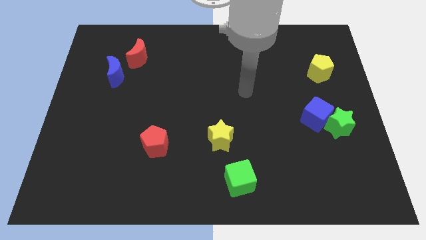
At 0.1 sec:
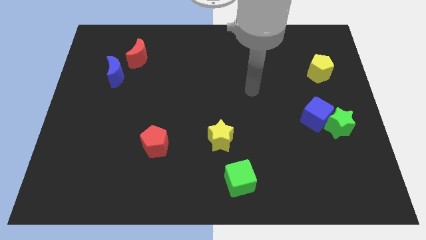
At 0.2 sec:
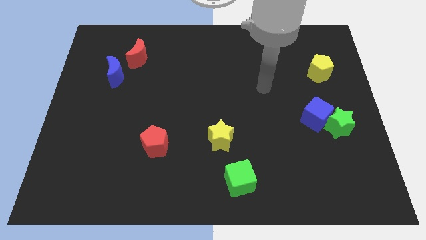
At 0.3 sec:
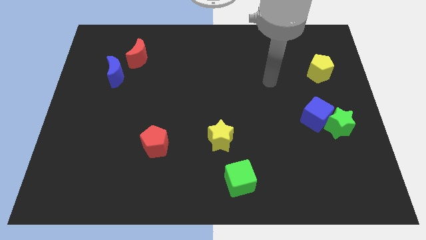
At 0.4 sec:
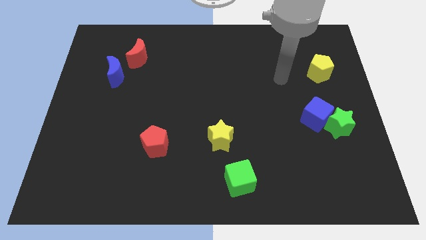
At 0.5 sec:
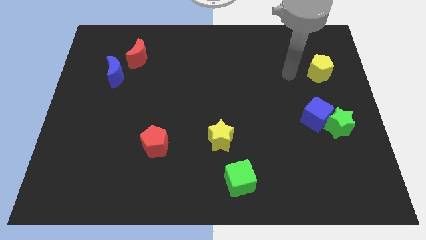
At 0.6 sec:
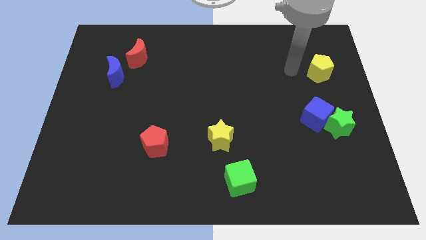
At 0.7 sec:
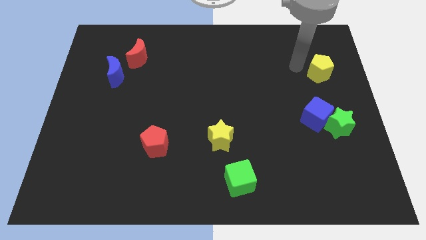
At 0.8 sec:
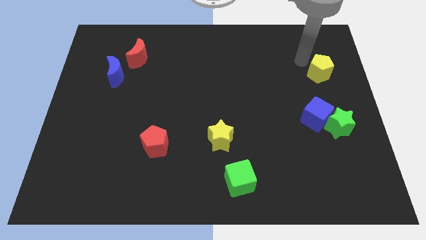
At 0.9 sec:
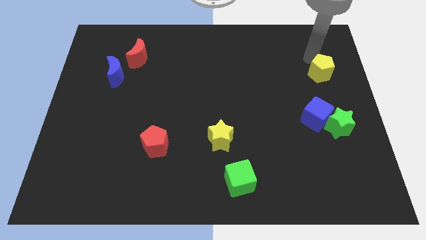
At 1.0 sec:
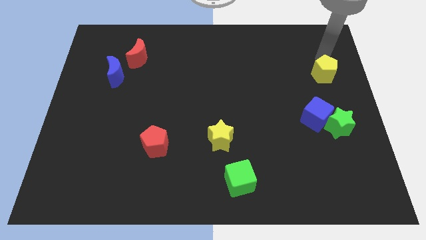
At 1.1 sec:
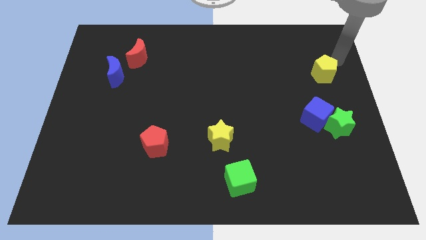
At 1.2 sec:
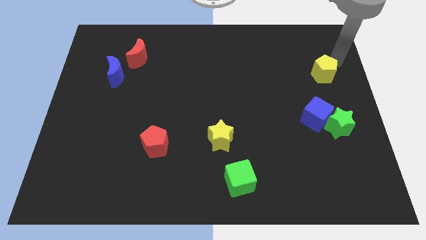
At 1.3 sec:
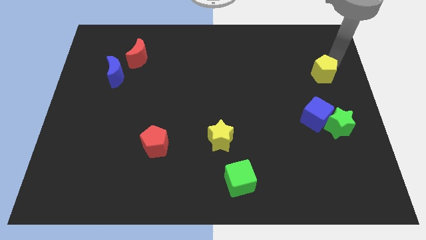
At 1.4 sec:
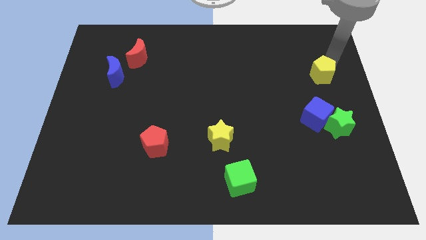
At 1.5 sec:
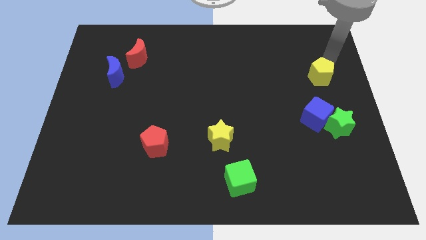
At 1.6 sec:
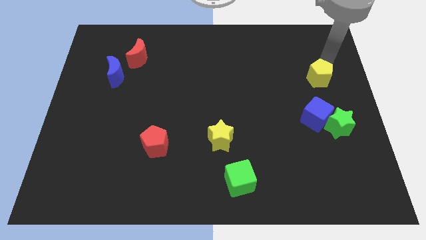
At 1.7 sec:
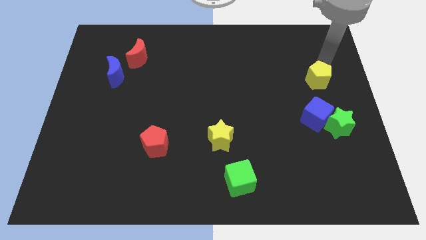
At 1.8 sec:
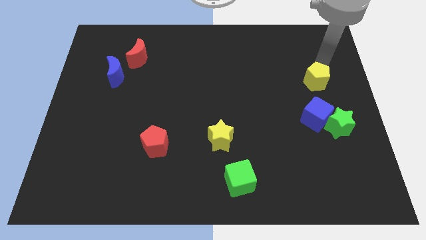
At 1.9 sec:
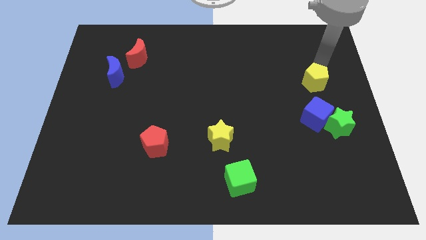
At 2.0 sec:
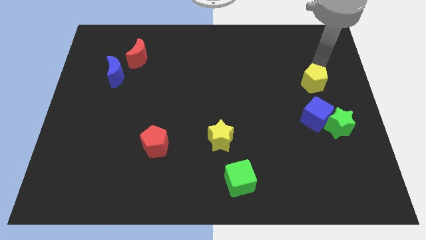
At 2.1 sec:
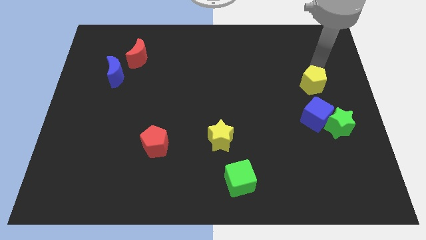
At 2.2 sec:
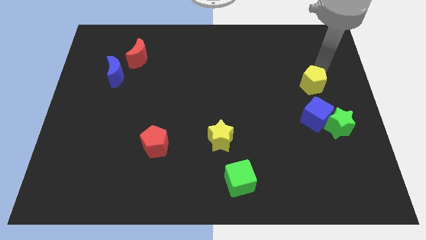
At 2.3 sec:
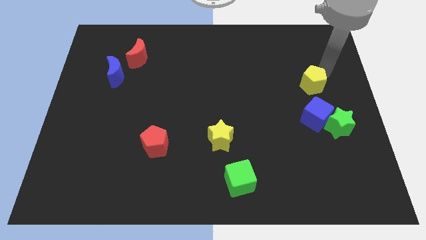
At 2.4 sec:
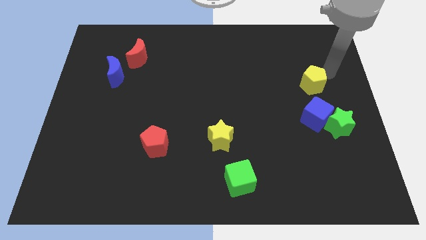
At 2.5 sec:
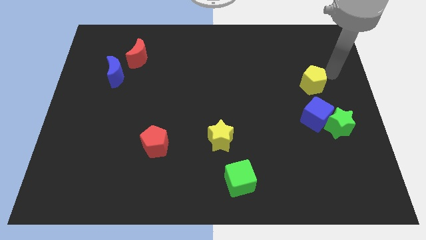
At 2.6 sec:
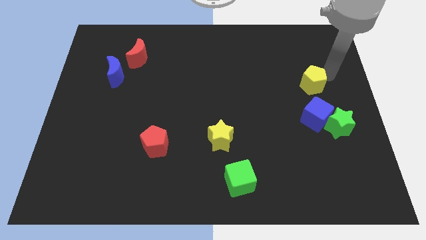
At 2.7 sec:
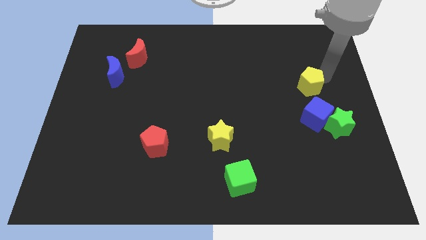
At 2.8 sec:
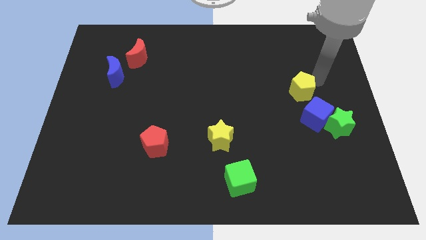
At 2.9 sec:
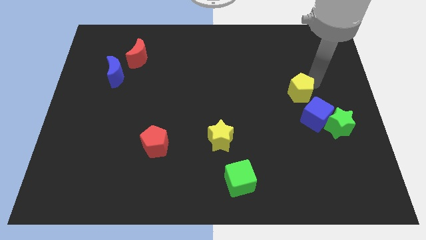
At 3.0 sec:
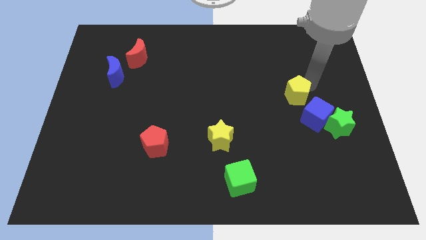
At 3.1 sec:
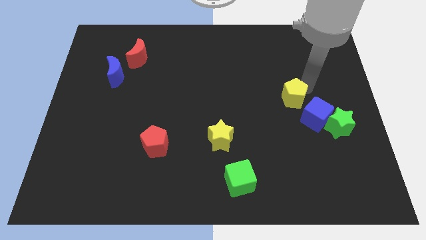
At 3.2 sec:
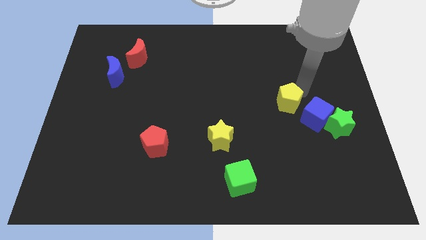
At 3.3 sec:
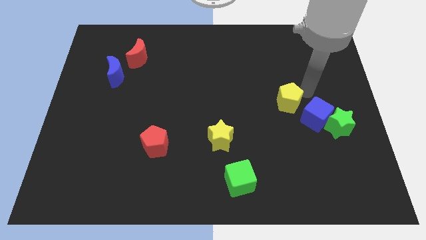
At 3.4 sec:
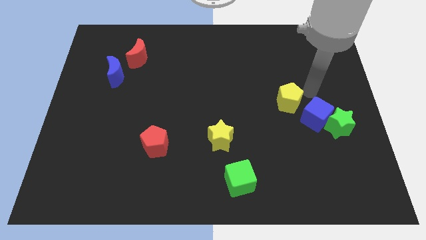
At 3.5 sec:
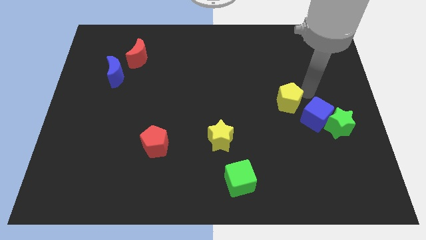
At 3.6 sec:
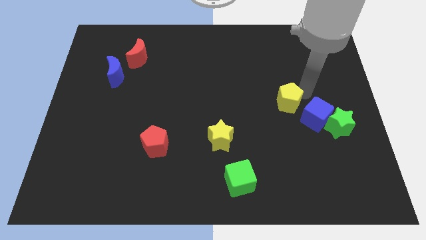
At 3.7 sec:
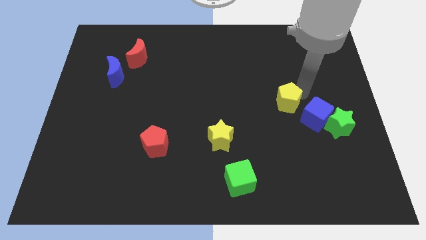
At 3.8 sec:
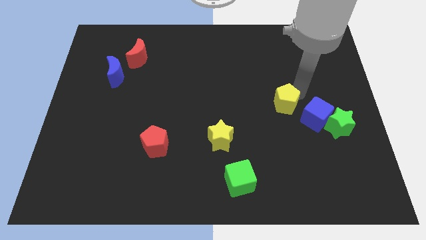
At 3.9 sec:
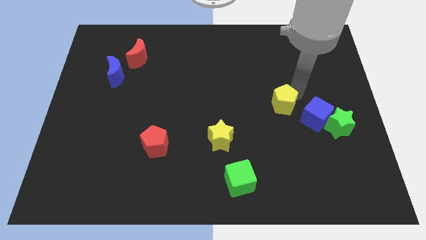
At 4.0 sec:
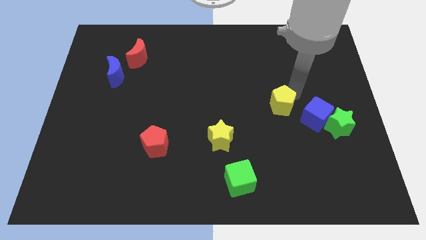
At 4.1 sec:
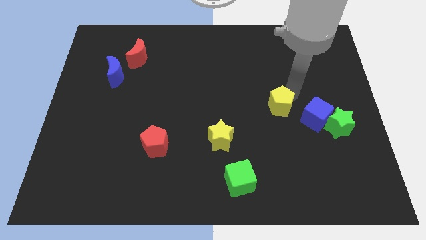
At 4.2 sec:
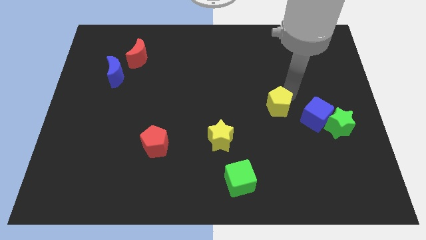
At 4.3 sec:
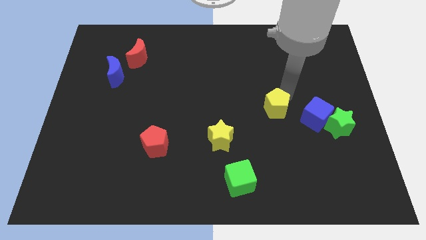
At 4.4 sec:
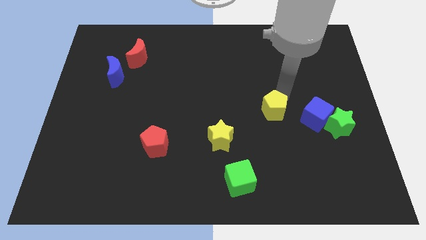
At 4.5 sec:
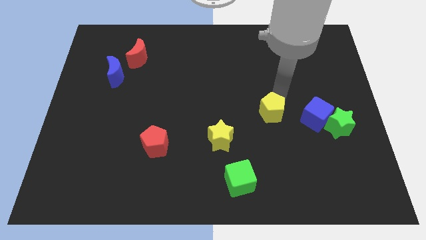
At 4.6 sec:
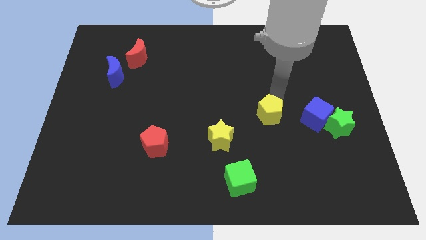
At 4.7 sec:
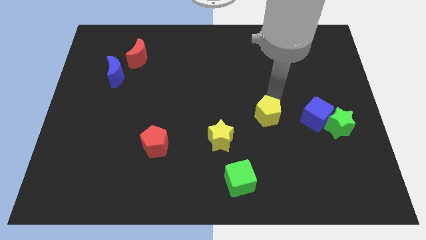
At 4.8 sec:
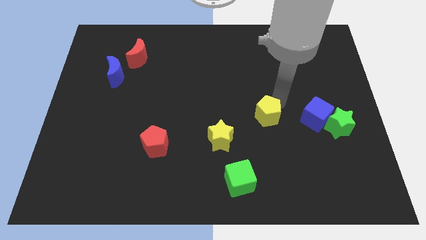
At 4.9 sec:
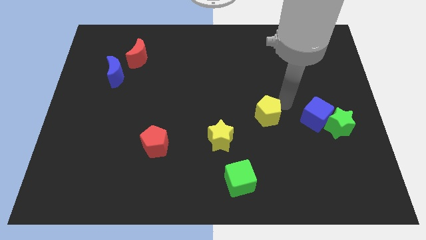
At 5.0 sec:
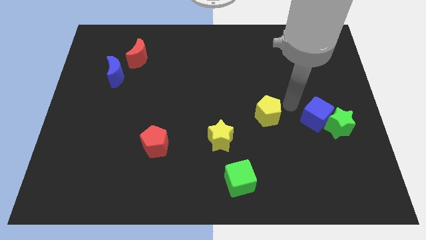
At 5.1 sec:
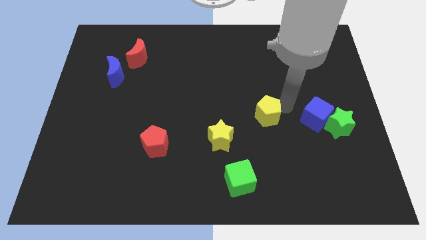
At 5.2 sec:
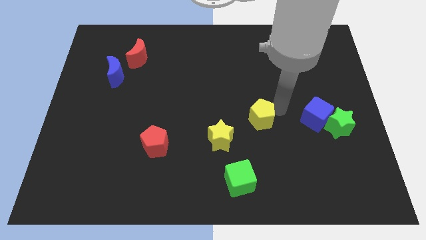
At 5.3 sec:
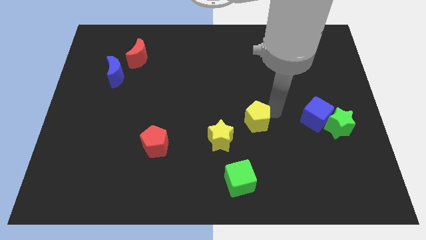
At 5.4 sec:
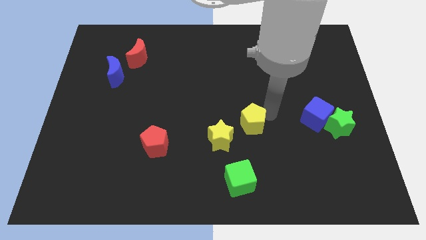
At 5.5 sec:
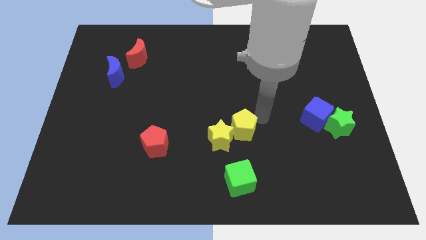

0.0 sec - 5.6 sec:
move the yellow pentagon to the yellow star

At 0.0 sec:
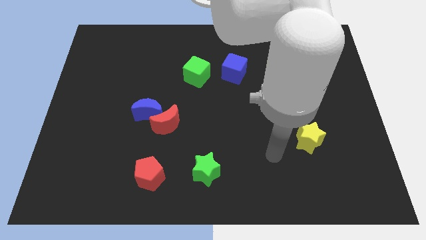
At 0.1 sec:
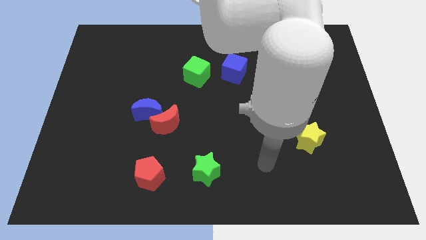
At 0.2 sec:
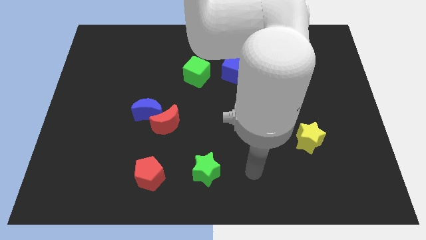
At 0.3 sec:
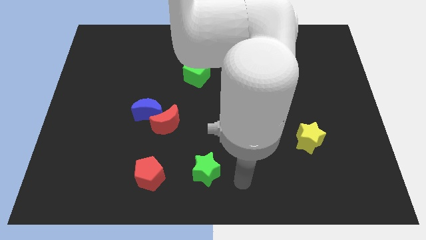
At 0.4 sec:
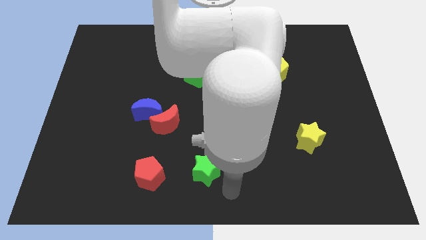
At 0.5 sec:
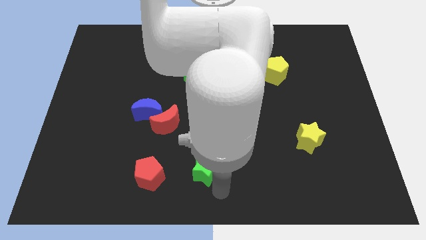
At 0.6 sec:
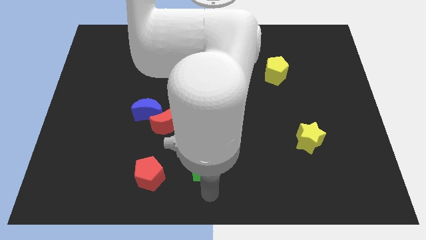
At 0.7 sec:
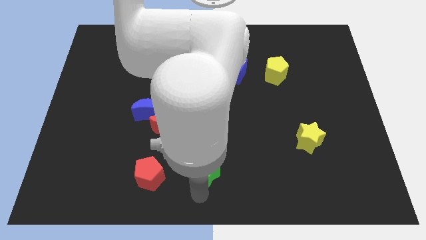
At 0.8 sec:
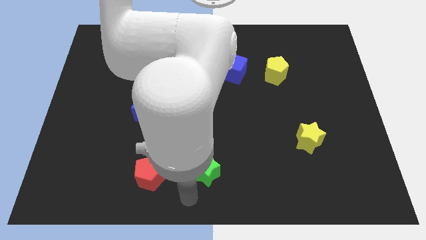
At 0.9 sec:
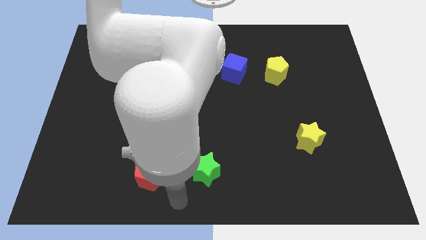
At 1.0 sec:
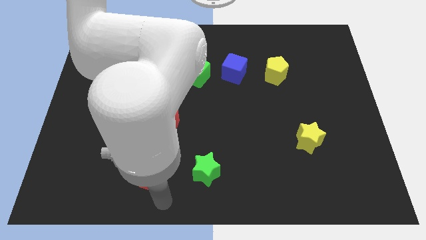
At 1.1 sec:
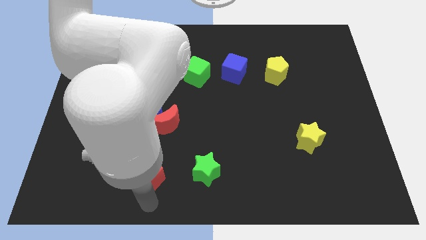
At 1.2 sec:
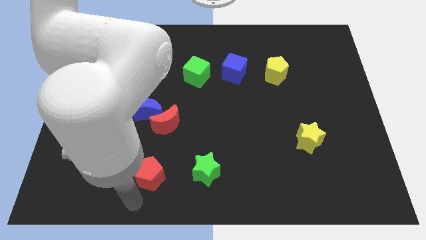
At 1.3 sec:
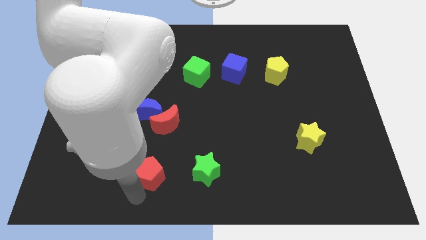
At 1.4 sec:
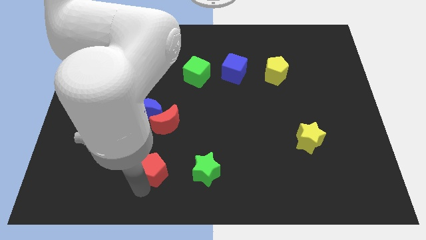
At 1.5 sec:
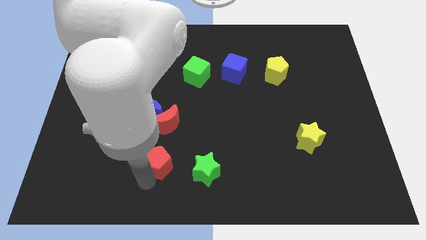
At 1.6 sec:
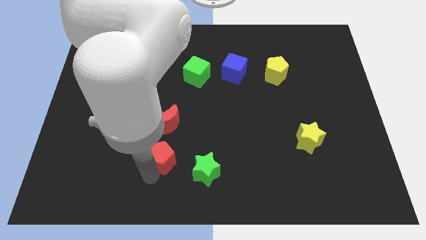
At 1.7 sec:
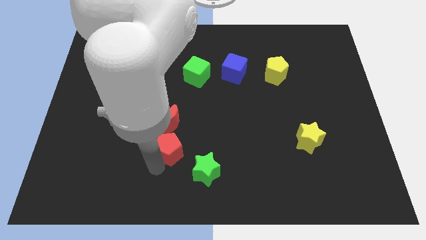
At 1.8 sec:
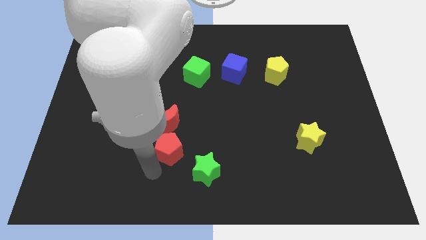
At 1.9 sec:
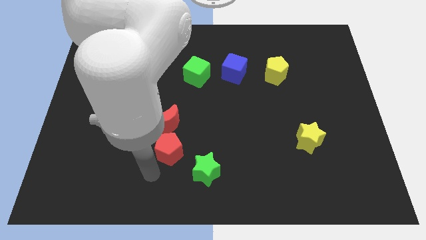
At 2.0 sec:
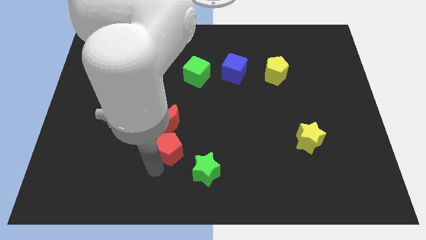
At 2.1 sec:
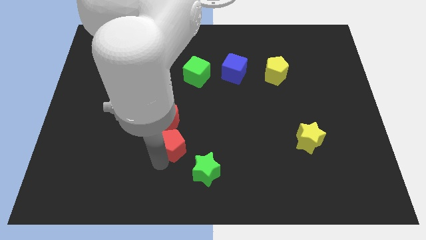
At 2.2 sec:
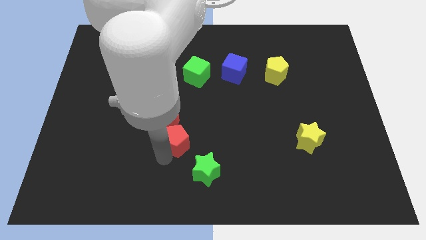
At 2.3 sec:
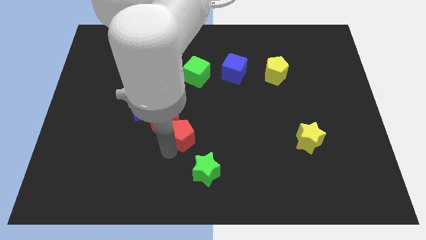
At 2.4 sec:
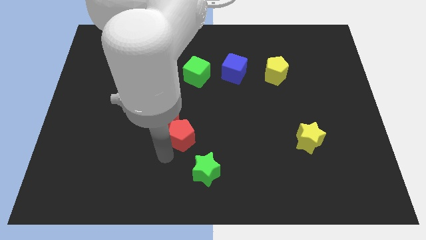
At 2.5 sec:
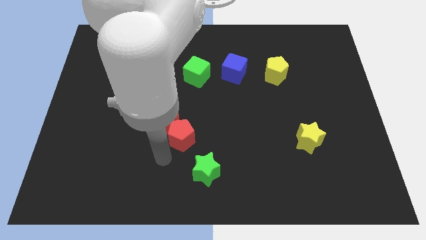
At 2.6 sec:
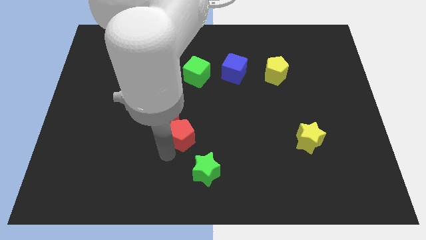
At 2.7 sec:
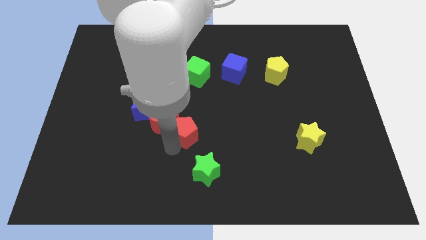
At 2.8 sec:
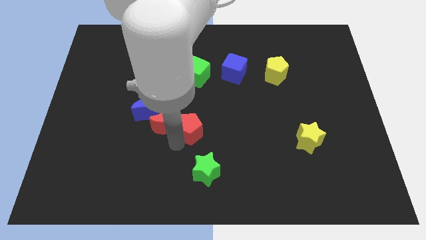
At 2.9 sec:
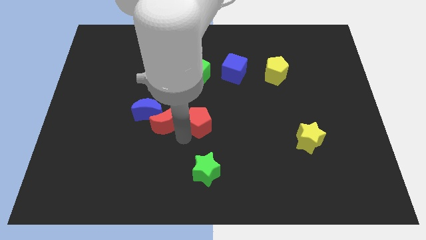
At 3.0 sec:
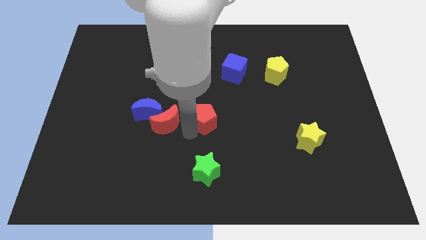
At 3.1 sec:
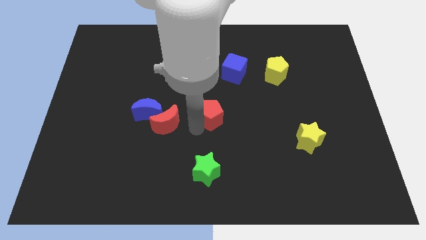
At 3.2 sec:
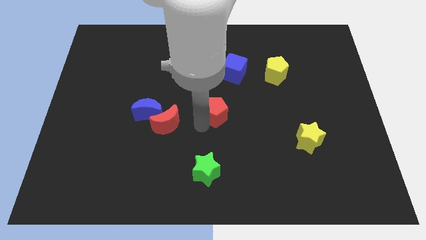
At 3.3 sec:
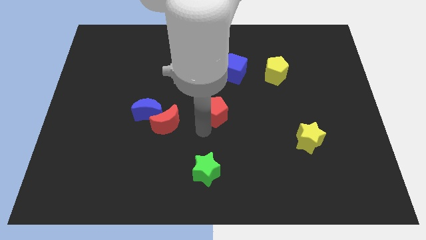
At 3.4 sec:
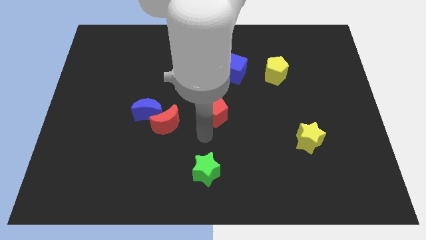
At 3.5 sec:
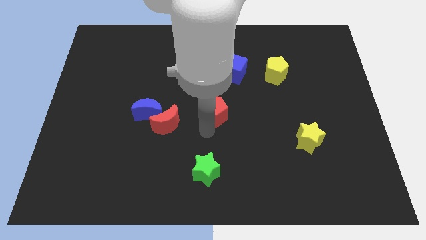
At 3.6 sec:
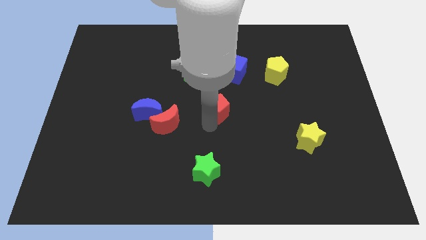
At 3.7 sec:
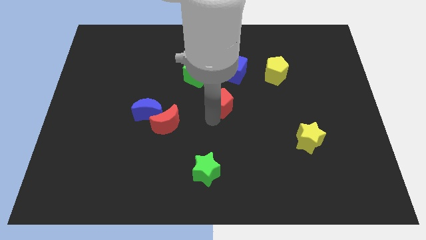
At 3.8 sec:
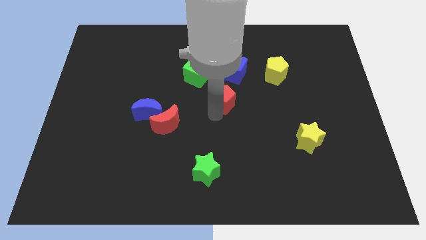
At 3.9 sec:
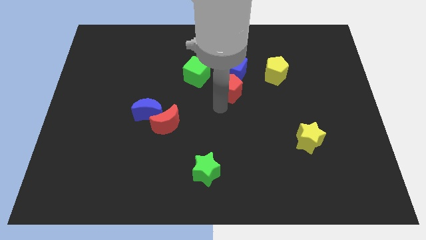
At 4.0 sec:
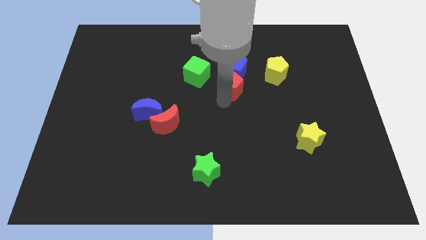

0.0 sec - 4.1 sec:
move the red pentagon close to the blue cube
